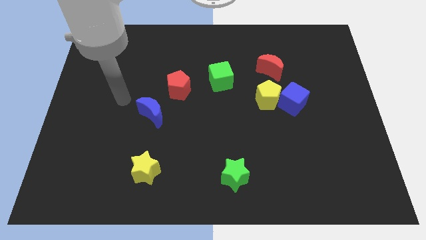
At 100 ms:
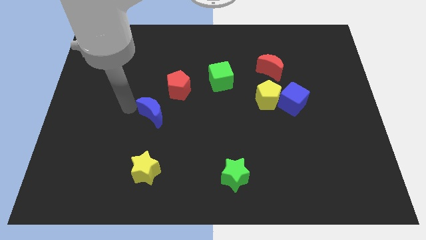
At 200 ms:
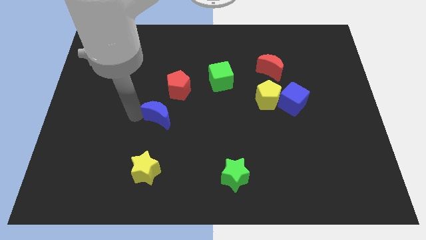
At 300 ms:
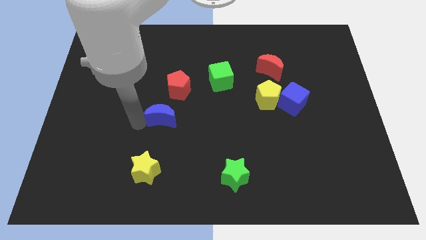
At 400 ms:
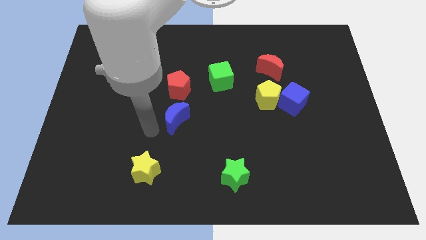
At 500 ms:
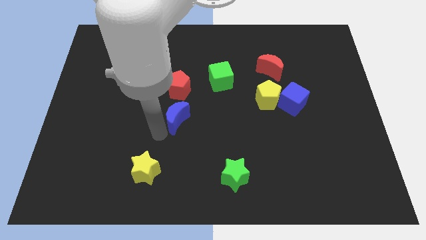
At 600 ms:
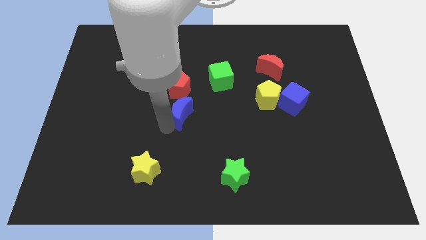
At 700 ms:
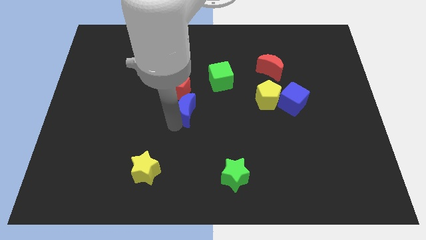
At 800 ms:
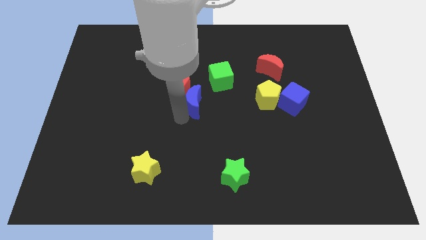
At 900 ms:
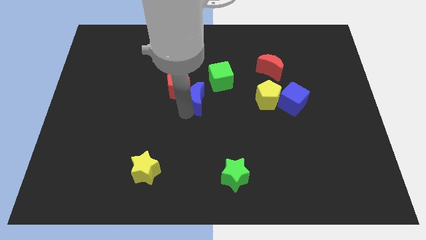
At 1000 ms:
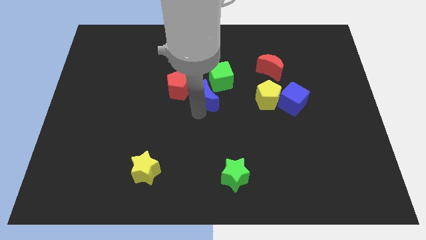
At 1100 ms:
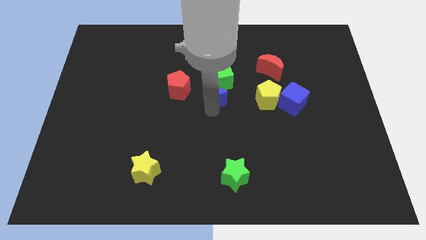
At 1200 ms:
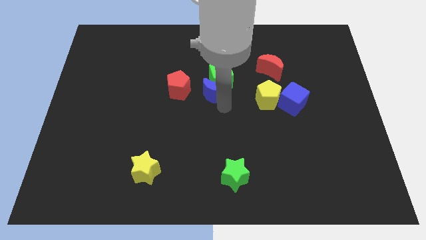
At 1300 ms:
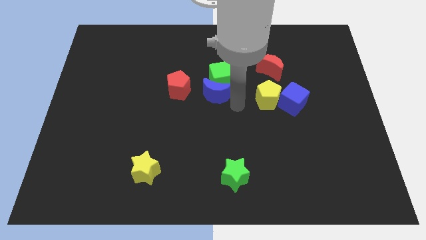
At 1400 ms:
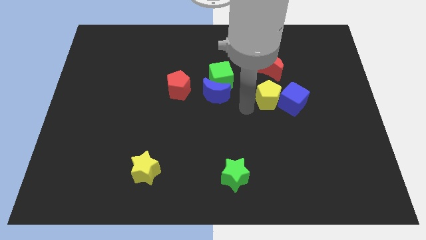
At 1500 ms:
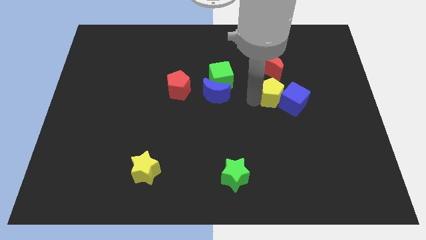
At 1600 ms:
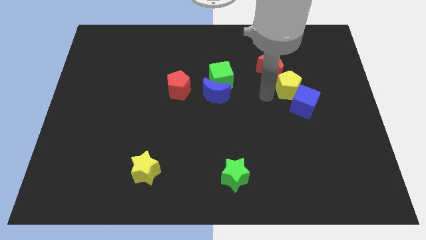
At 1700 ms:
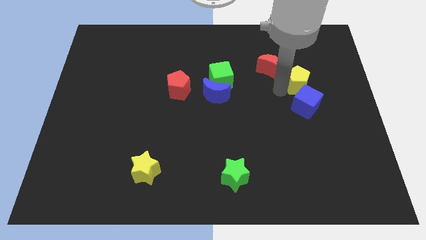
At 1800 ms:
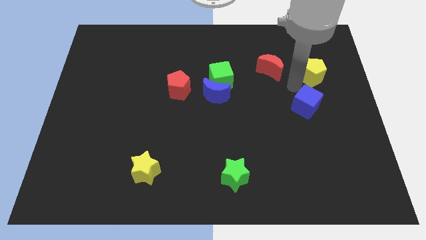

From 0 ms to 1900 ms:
pull the blue cube apart from the yellow pentagon

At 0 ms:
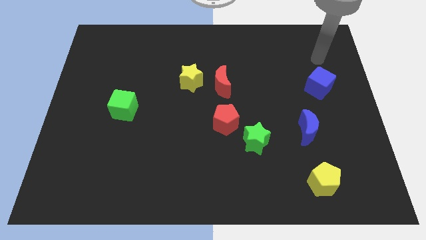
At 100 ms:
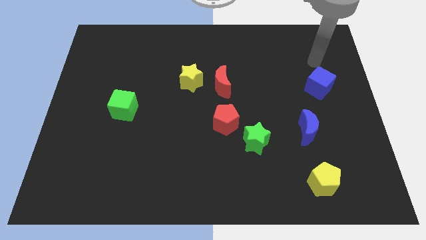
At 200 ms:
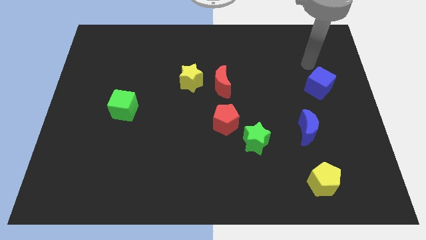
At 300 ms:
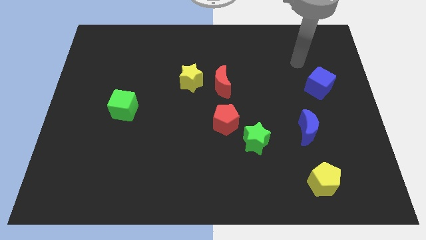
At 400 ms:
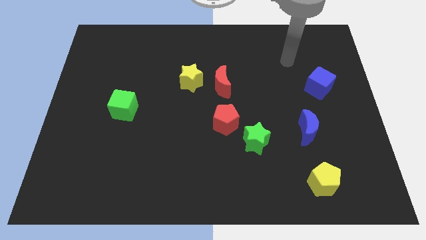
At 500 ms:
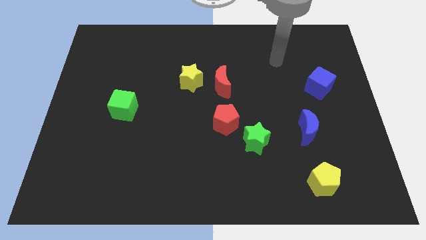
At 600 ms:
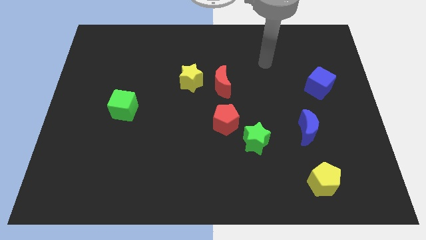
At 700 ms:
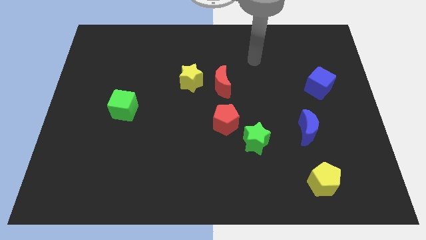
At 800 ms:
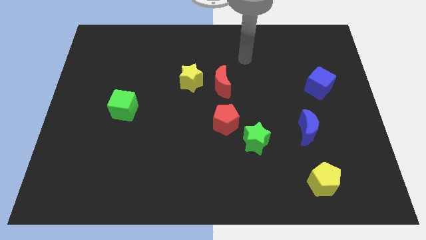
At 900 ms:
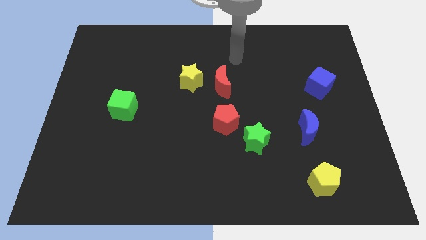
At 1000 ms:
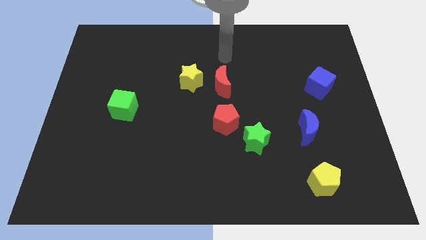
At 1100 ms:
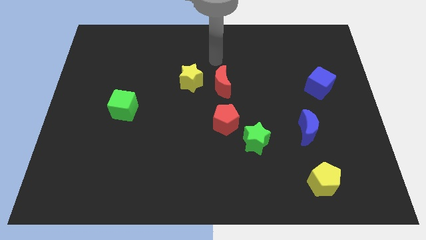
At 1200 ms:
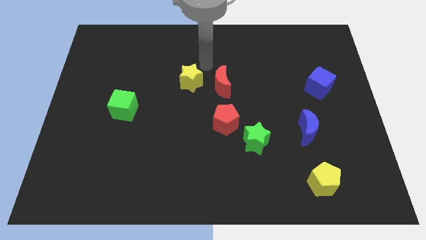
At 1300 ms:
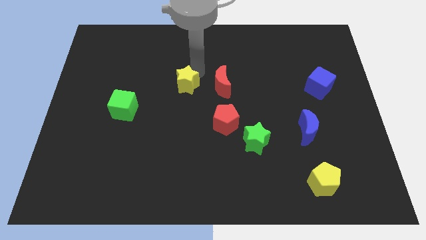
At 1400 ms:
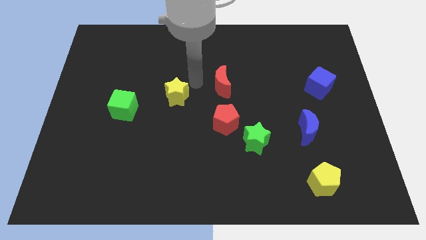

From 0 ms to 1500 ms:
move the red moon away from the yellow star

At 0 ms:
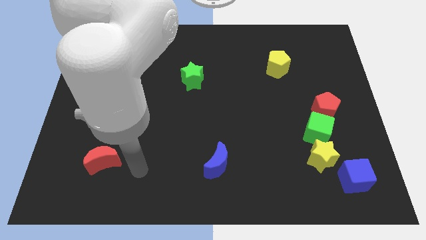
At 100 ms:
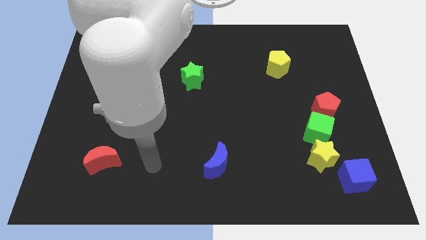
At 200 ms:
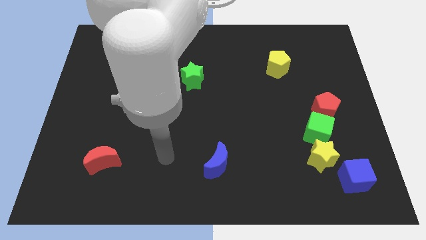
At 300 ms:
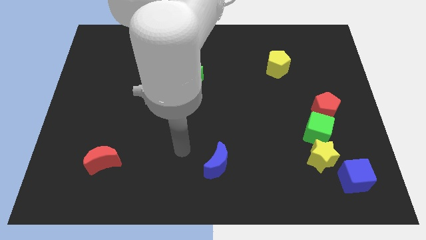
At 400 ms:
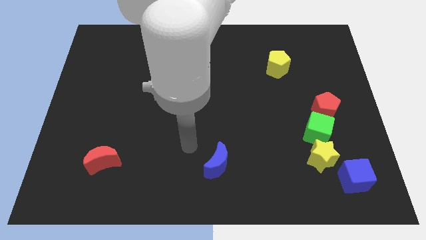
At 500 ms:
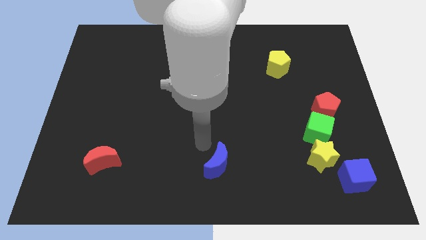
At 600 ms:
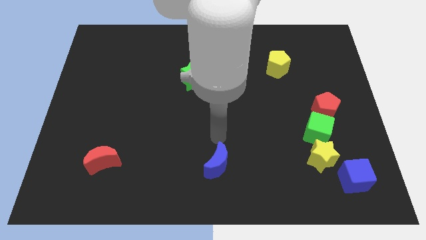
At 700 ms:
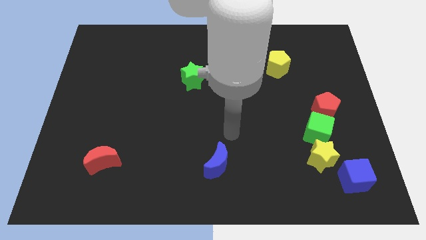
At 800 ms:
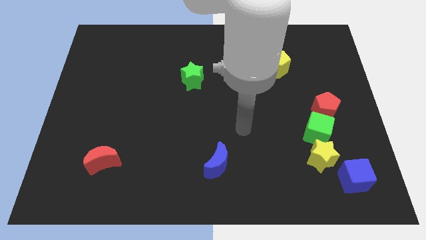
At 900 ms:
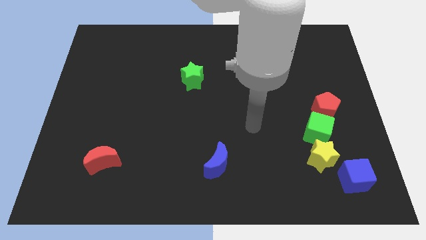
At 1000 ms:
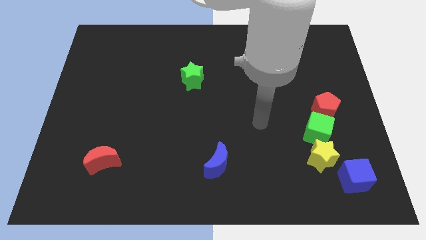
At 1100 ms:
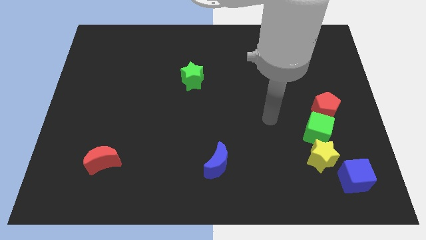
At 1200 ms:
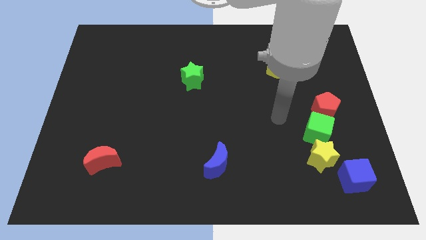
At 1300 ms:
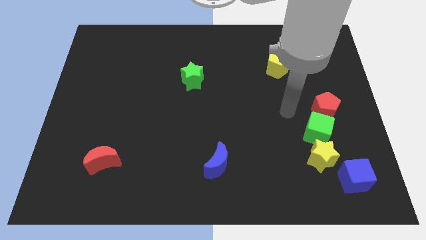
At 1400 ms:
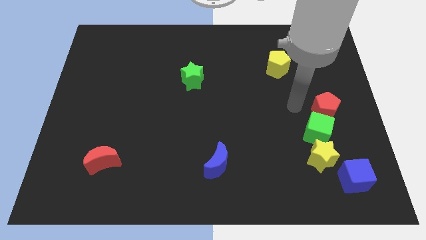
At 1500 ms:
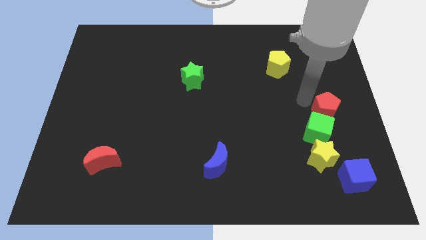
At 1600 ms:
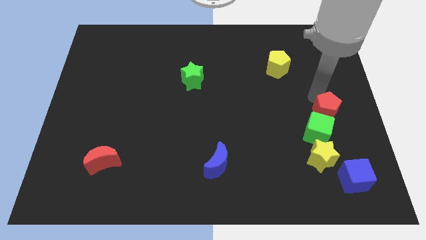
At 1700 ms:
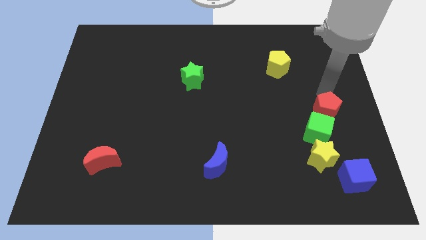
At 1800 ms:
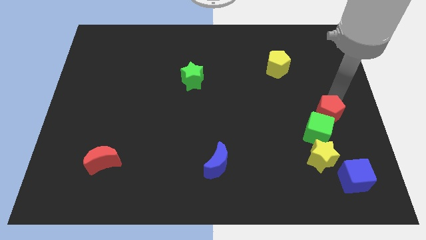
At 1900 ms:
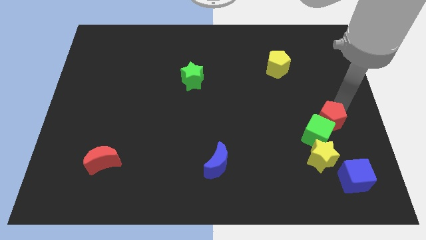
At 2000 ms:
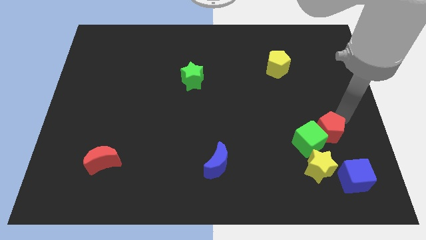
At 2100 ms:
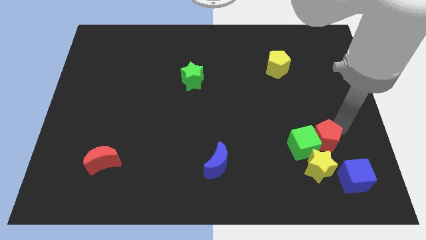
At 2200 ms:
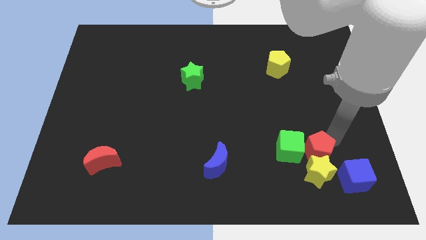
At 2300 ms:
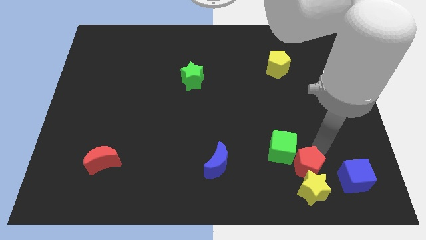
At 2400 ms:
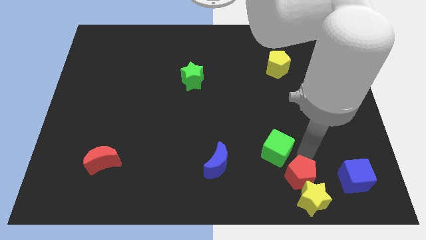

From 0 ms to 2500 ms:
move the green cube away from the yellow star and red pentagon

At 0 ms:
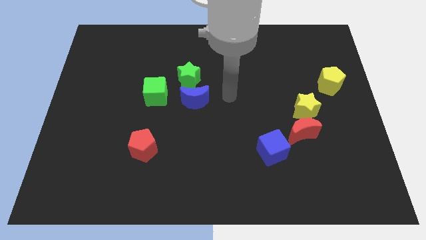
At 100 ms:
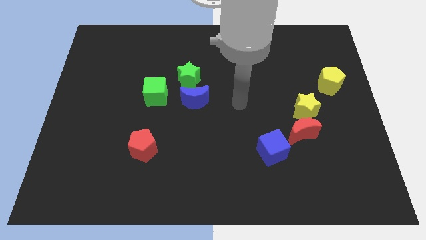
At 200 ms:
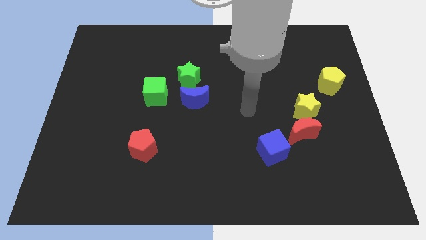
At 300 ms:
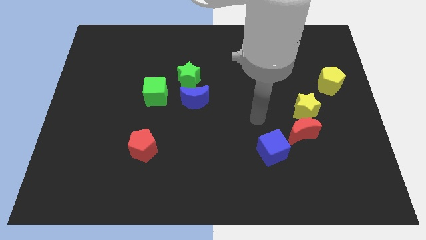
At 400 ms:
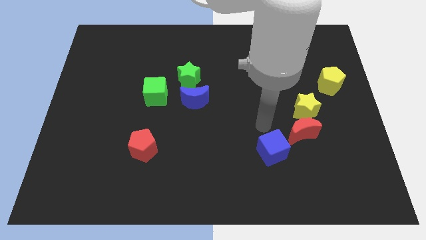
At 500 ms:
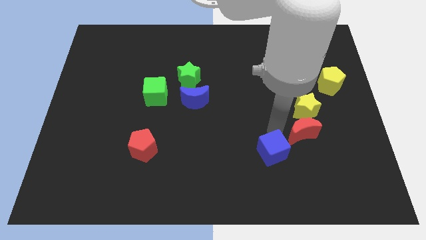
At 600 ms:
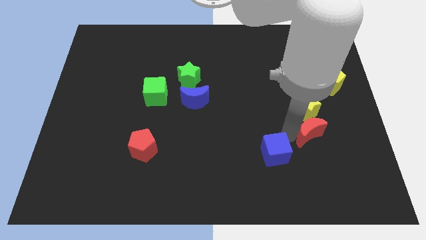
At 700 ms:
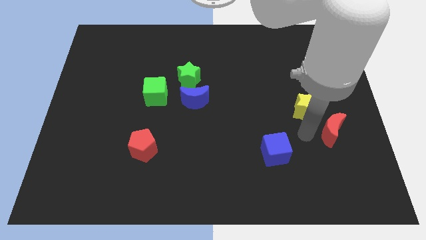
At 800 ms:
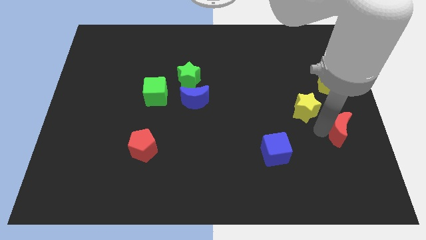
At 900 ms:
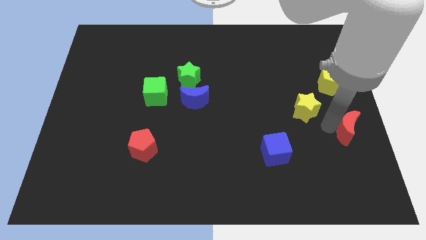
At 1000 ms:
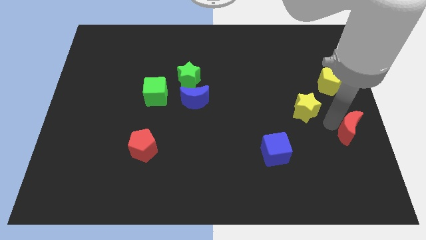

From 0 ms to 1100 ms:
pull the yellow star apart from the red moon

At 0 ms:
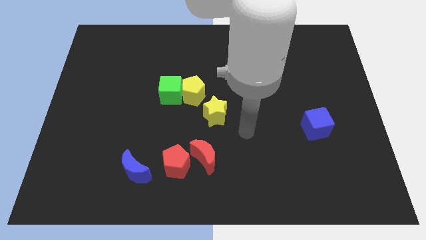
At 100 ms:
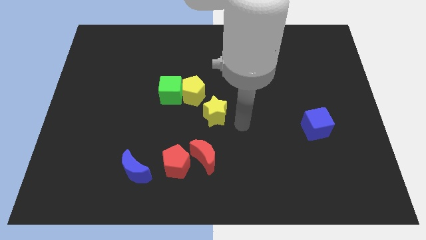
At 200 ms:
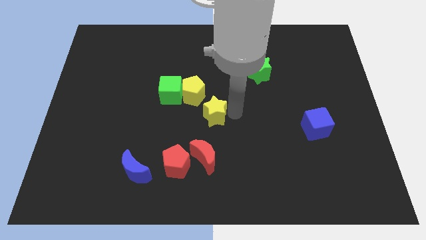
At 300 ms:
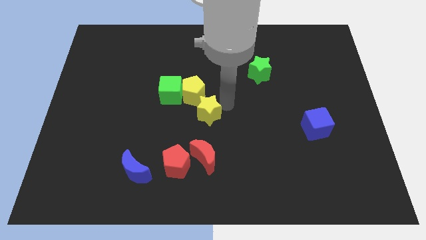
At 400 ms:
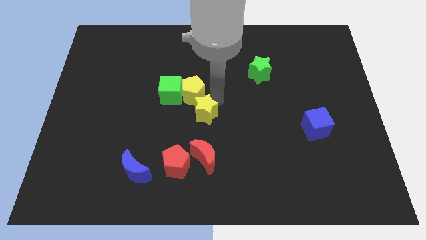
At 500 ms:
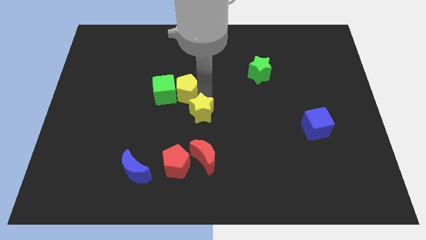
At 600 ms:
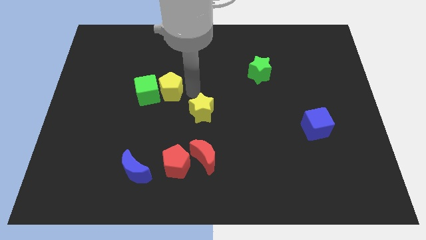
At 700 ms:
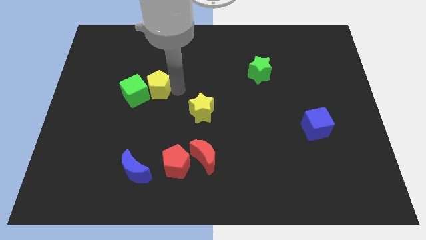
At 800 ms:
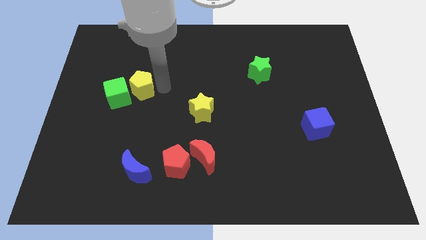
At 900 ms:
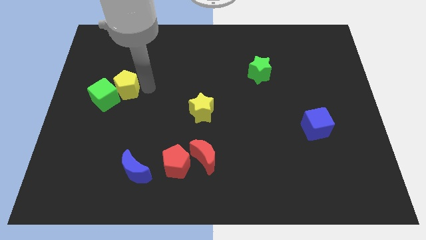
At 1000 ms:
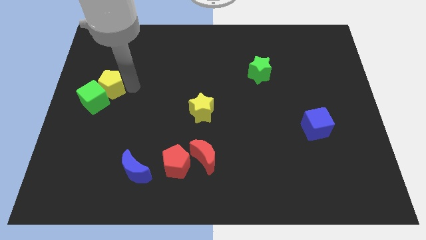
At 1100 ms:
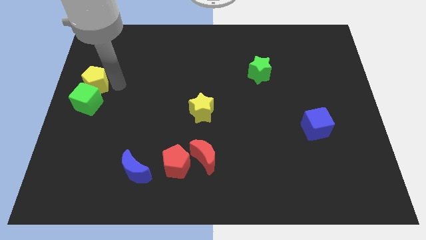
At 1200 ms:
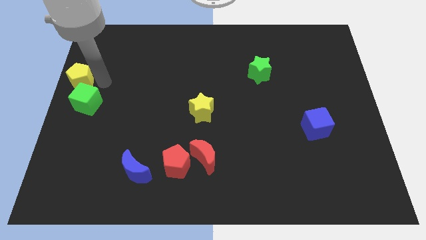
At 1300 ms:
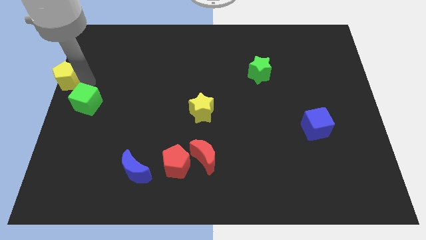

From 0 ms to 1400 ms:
separate the green cube from the yellow pentagon

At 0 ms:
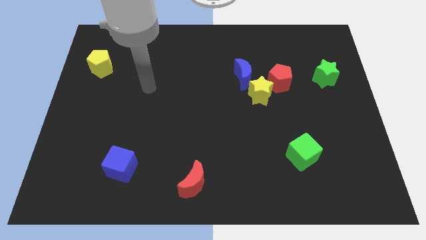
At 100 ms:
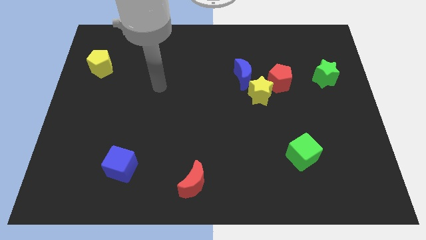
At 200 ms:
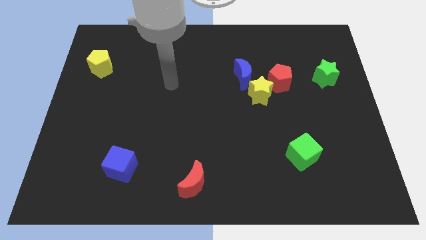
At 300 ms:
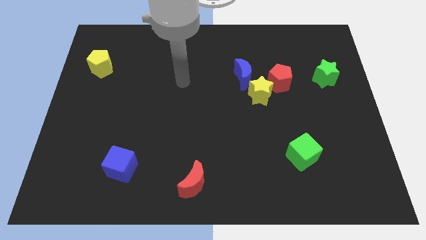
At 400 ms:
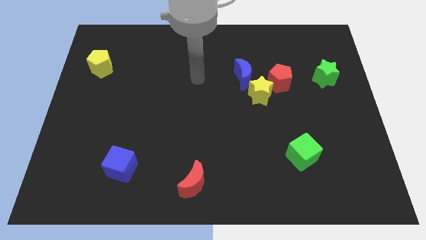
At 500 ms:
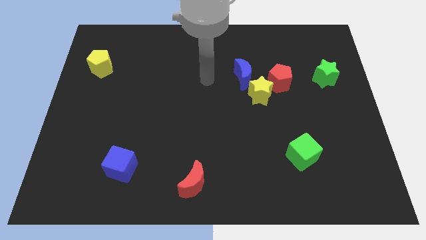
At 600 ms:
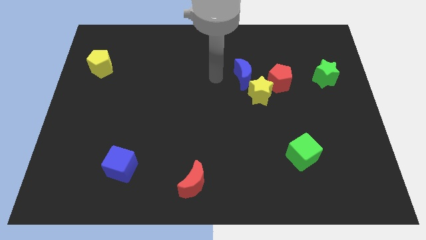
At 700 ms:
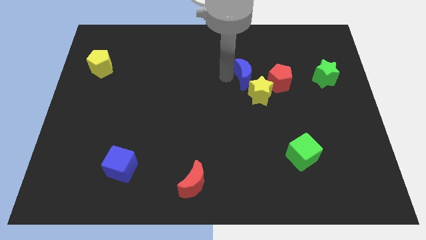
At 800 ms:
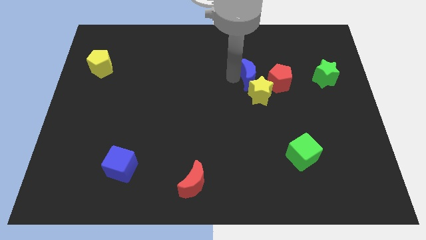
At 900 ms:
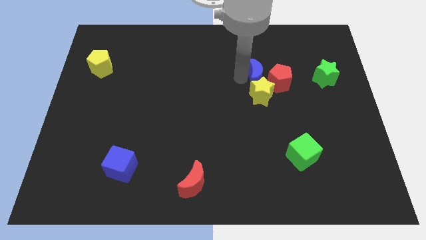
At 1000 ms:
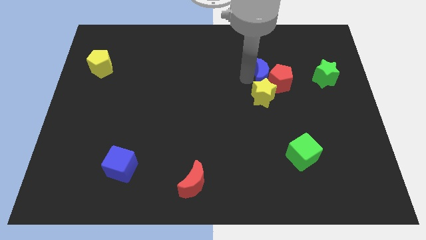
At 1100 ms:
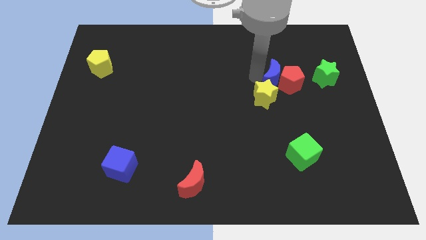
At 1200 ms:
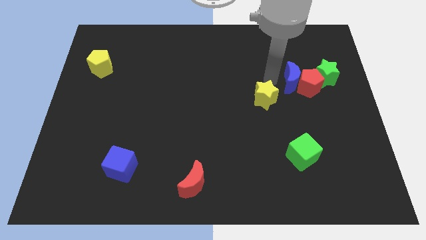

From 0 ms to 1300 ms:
move the yellow star away from the blue moon and red pentagon
